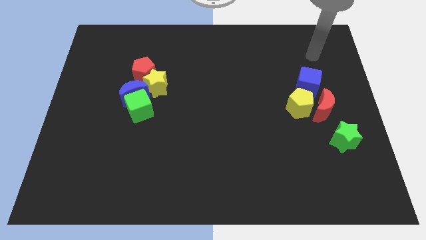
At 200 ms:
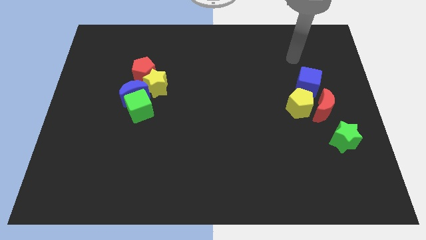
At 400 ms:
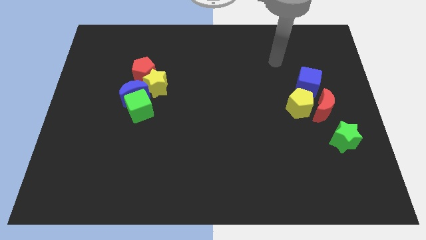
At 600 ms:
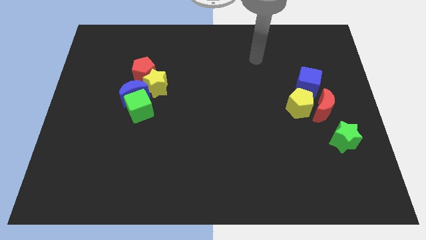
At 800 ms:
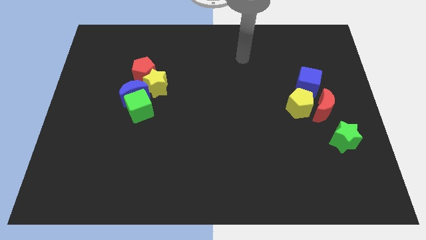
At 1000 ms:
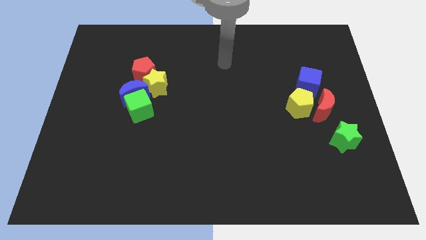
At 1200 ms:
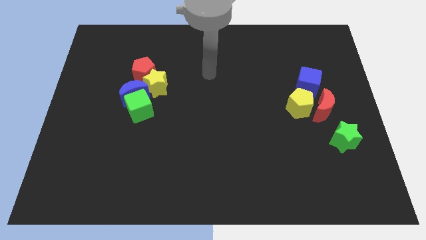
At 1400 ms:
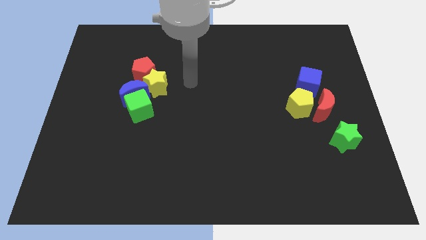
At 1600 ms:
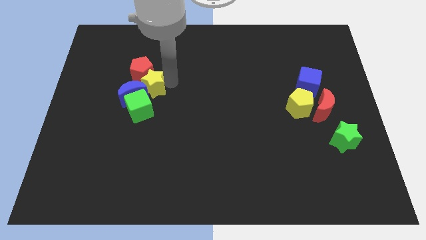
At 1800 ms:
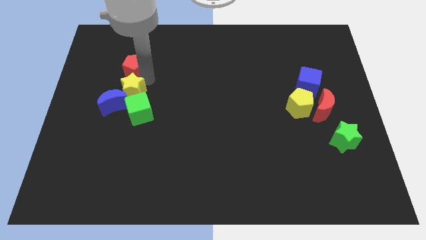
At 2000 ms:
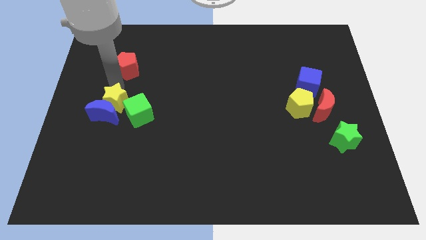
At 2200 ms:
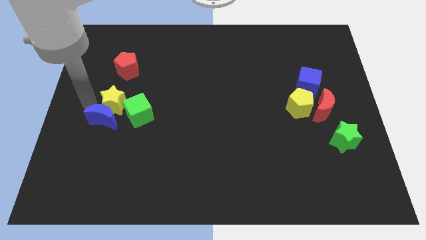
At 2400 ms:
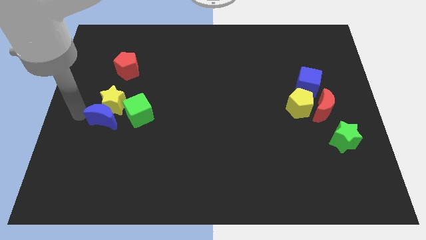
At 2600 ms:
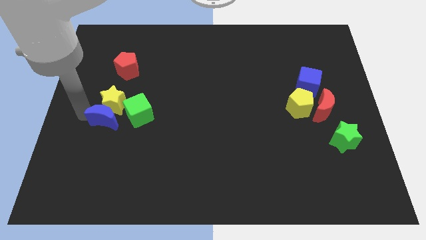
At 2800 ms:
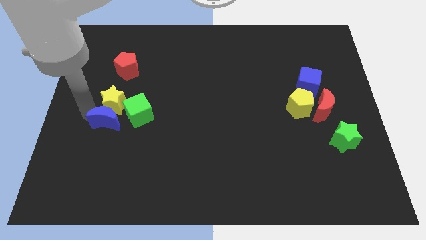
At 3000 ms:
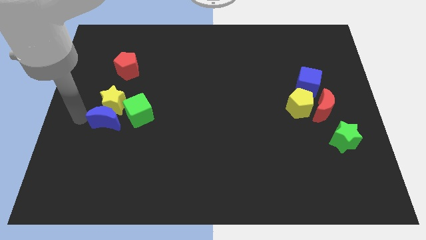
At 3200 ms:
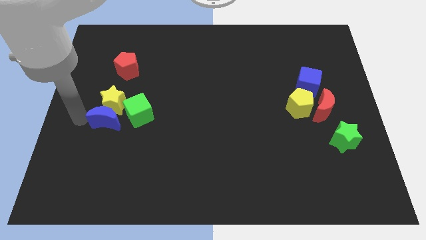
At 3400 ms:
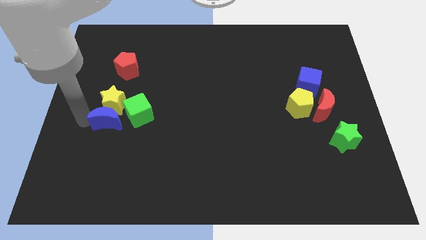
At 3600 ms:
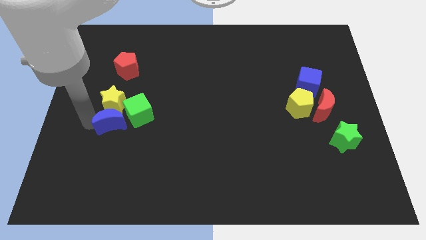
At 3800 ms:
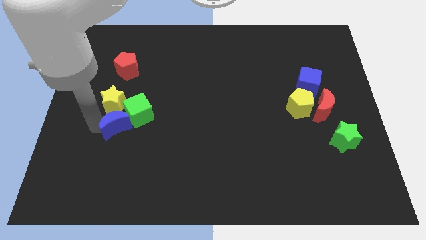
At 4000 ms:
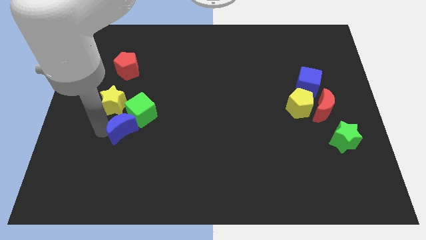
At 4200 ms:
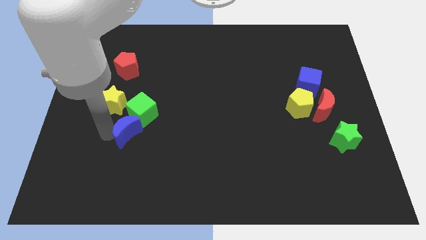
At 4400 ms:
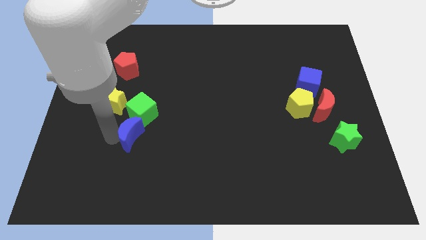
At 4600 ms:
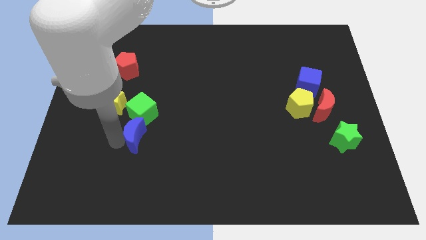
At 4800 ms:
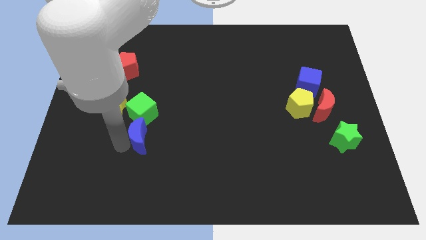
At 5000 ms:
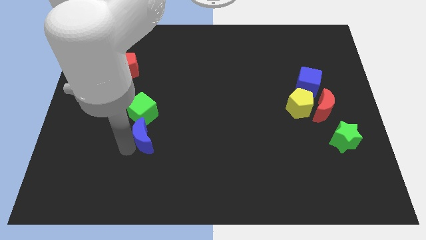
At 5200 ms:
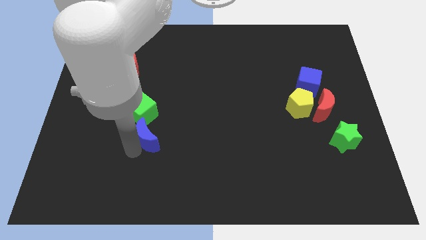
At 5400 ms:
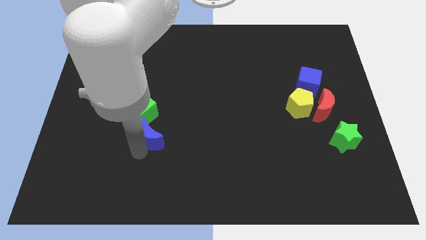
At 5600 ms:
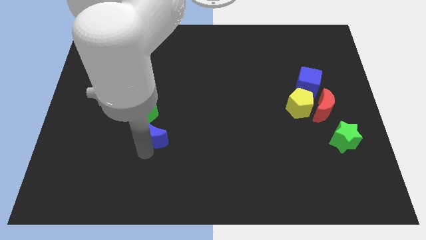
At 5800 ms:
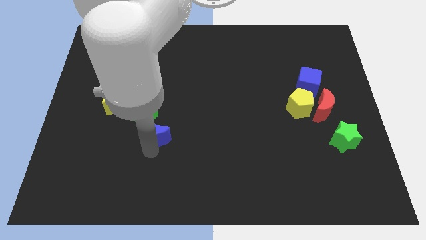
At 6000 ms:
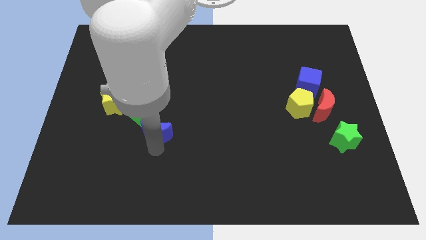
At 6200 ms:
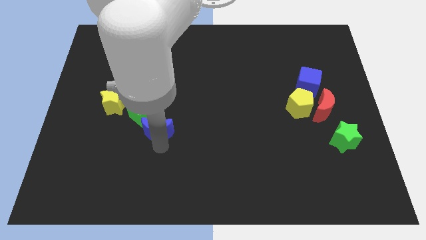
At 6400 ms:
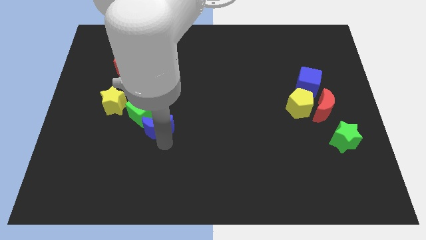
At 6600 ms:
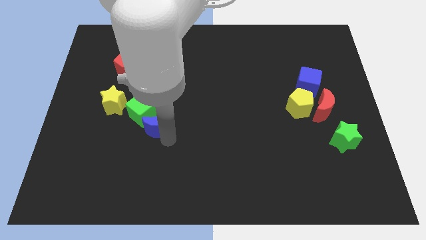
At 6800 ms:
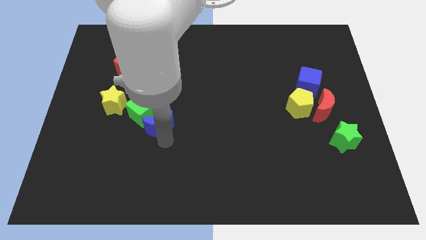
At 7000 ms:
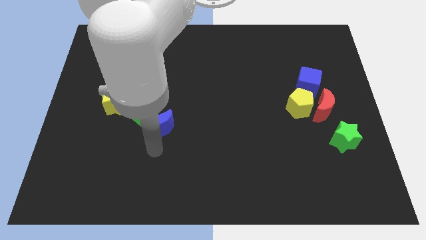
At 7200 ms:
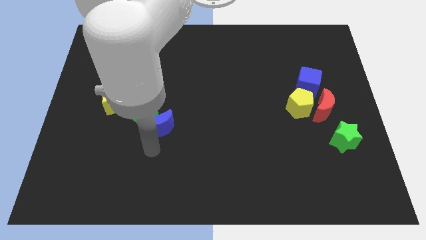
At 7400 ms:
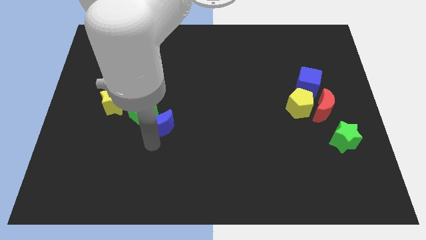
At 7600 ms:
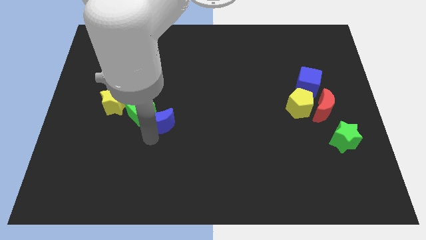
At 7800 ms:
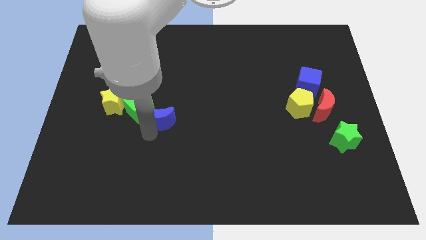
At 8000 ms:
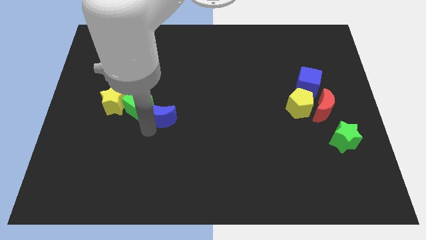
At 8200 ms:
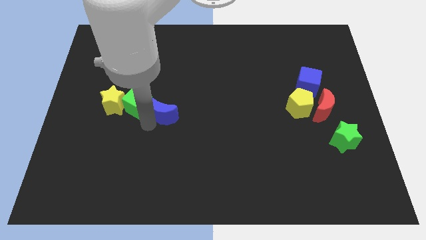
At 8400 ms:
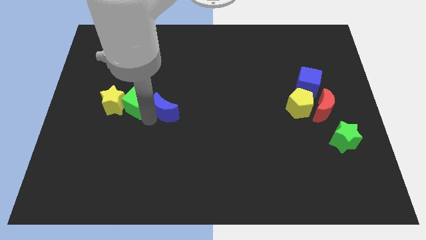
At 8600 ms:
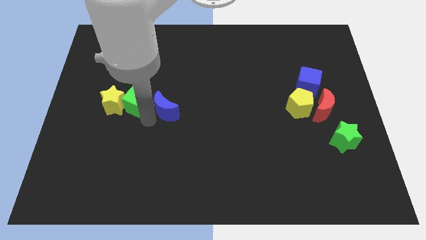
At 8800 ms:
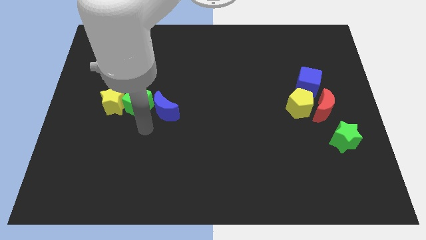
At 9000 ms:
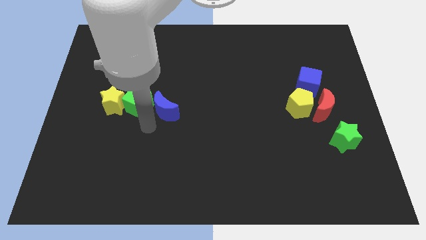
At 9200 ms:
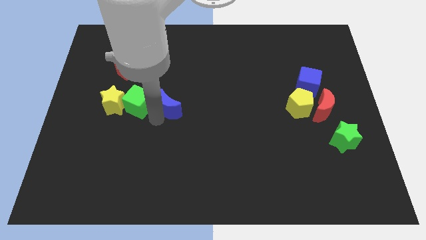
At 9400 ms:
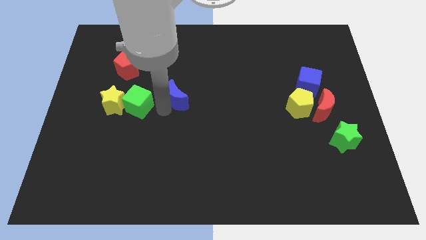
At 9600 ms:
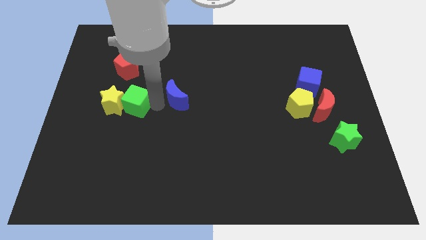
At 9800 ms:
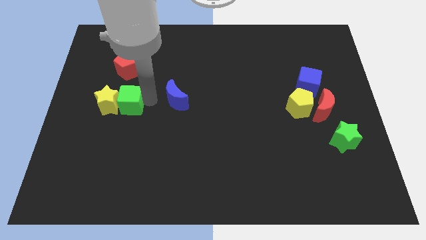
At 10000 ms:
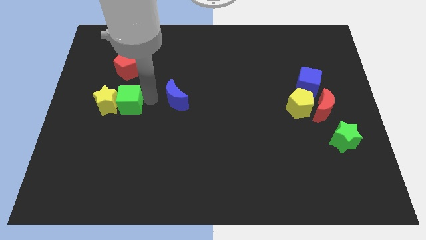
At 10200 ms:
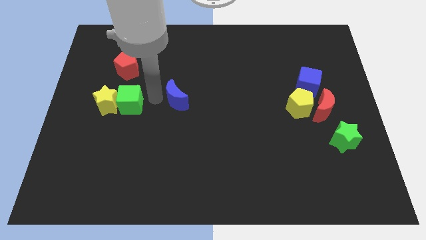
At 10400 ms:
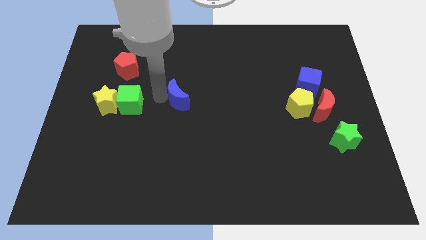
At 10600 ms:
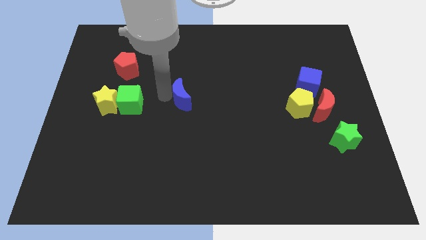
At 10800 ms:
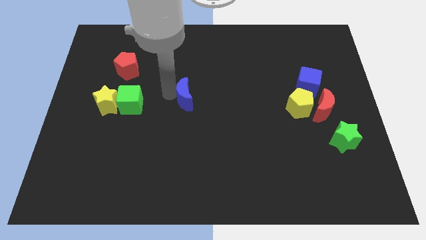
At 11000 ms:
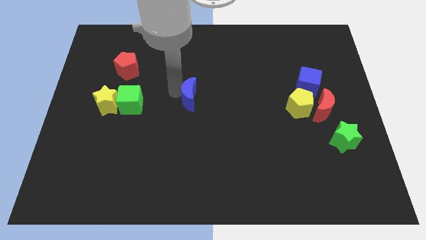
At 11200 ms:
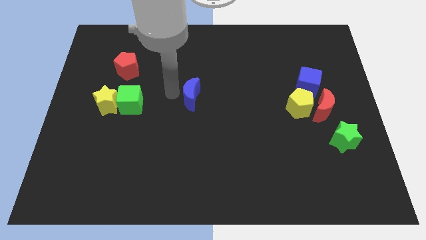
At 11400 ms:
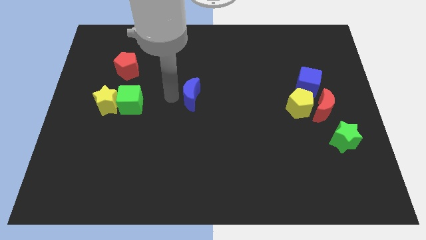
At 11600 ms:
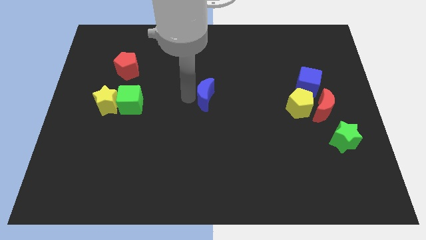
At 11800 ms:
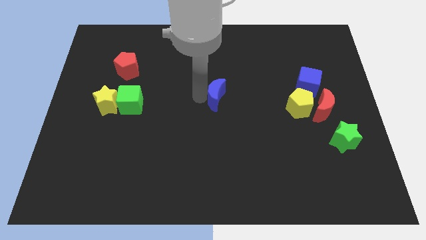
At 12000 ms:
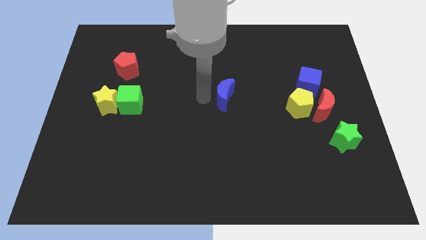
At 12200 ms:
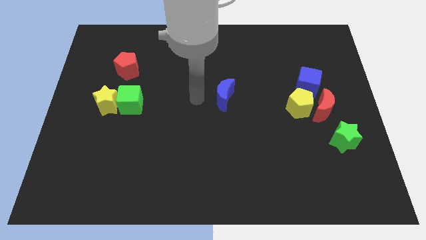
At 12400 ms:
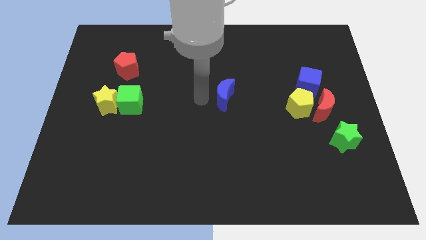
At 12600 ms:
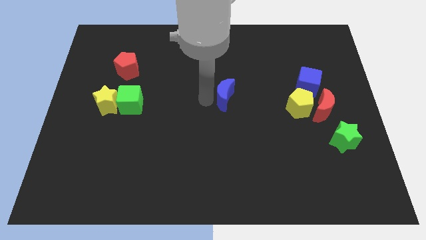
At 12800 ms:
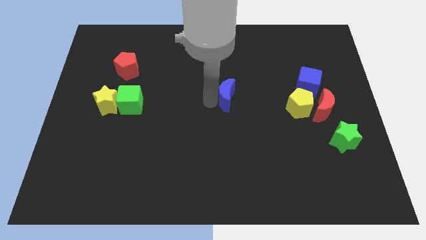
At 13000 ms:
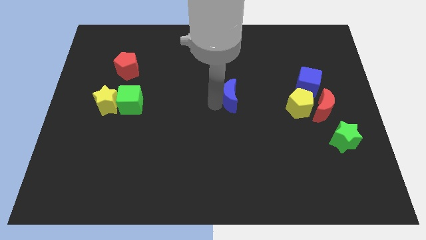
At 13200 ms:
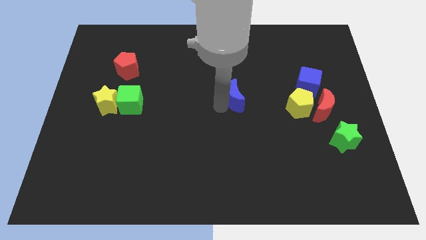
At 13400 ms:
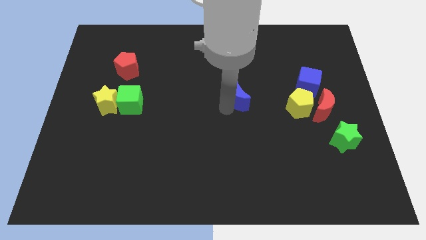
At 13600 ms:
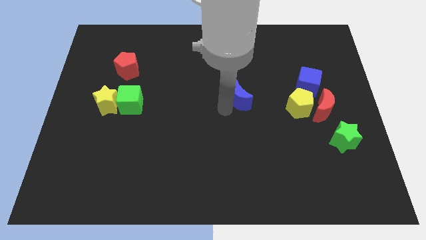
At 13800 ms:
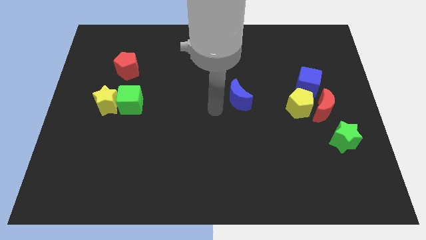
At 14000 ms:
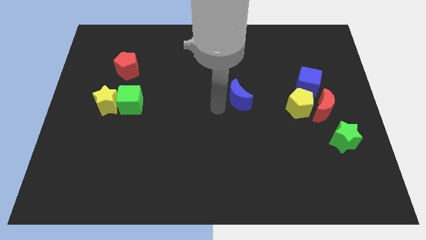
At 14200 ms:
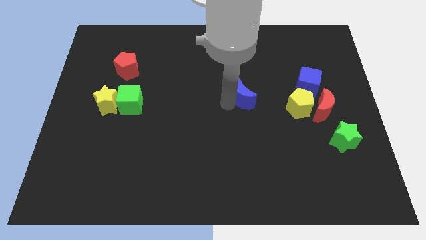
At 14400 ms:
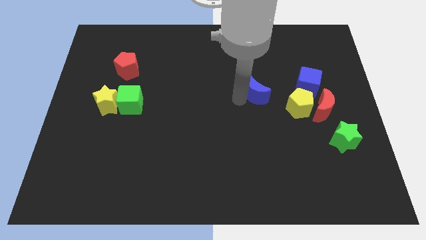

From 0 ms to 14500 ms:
put the blue moon diagonally up and to the left of the yellow pentagon

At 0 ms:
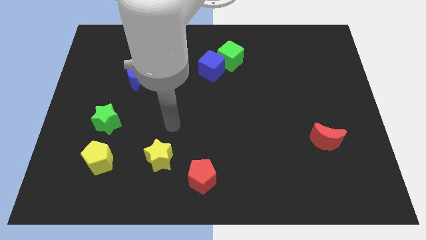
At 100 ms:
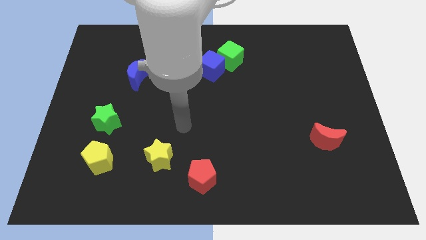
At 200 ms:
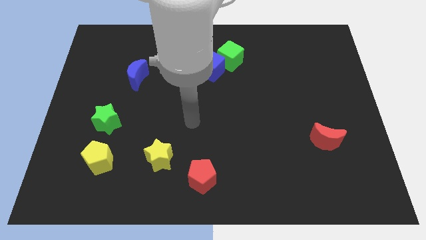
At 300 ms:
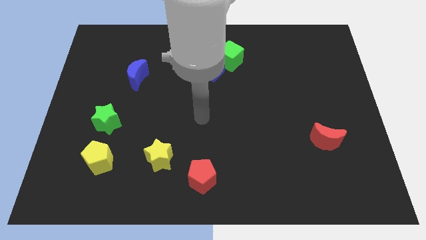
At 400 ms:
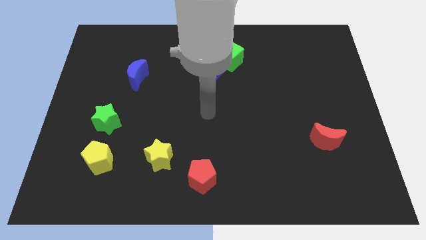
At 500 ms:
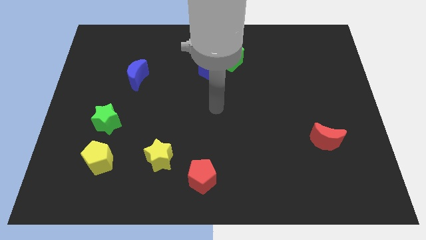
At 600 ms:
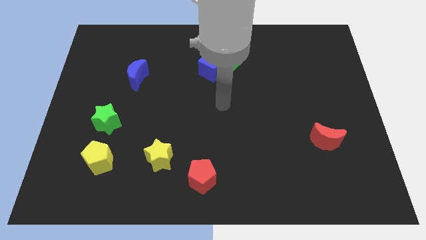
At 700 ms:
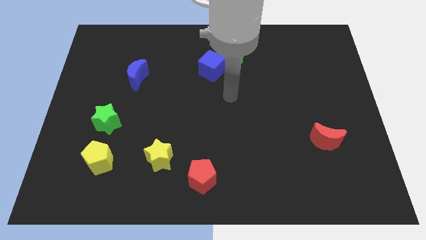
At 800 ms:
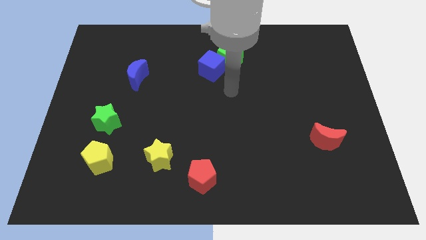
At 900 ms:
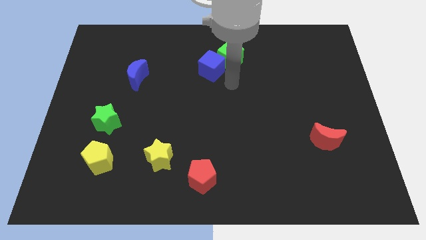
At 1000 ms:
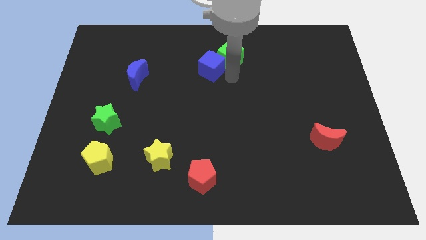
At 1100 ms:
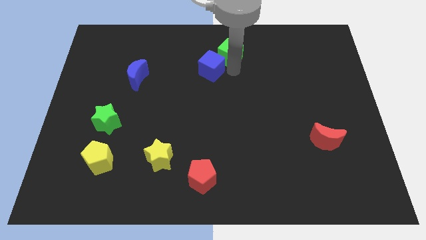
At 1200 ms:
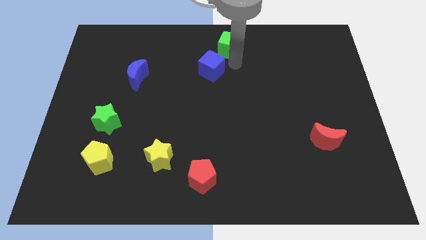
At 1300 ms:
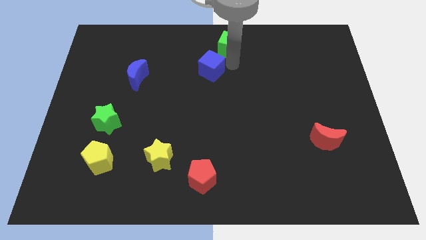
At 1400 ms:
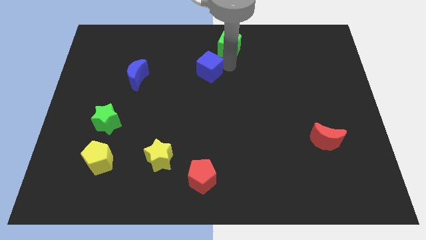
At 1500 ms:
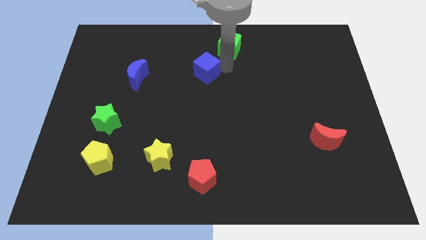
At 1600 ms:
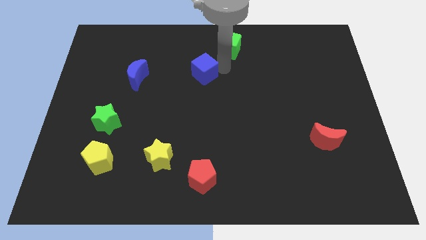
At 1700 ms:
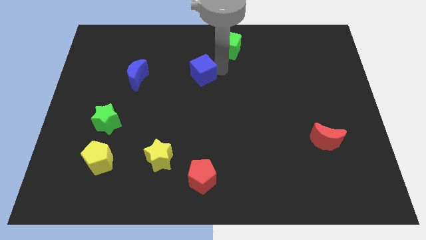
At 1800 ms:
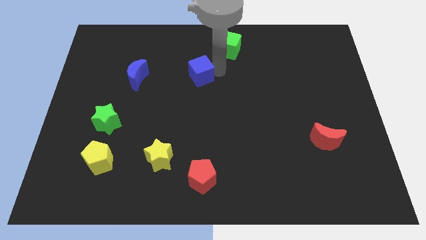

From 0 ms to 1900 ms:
push the blue cube right of the blue moon
